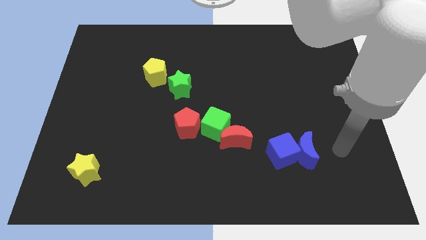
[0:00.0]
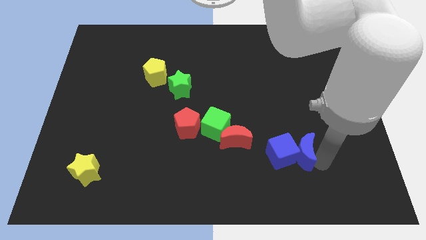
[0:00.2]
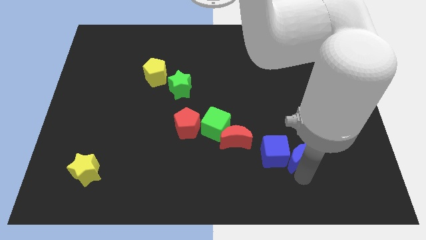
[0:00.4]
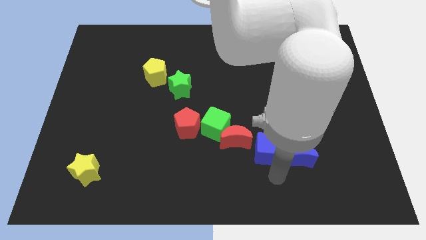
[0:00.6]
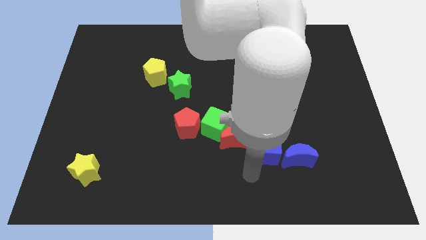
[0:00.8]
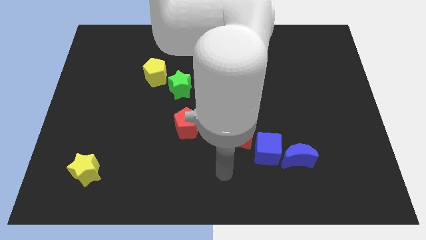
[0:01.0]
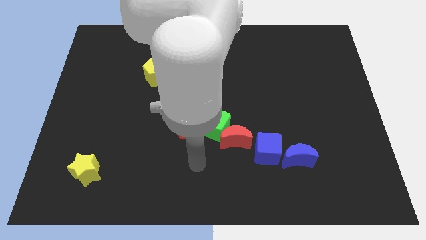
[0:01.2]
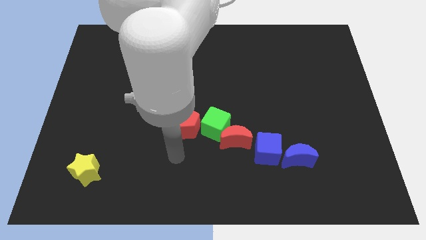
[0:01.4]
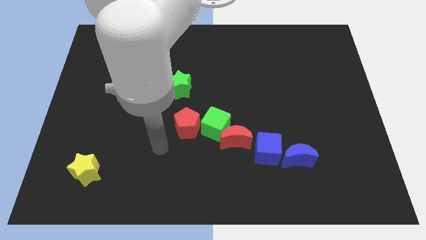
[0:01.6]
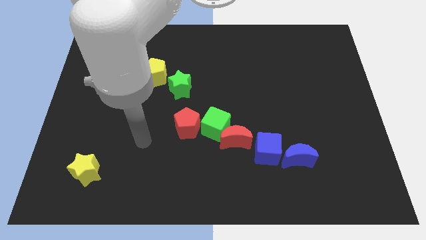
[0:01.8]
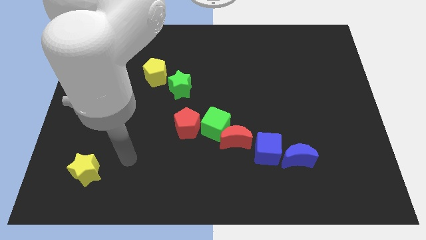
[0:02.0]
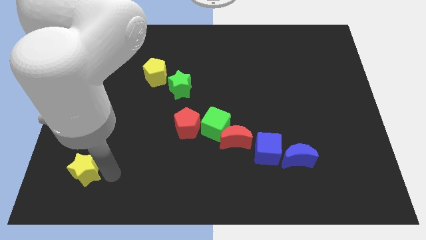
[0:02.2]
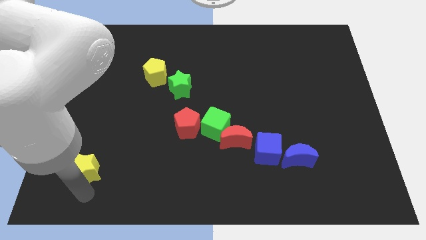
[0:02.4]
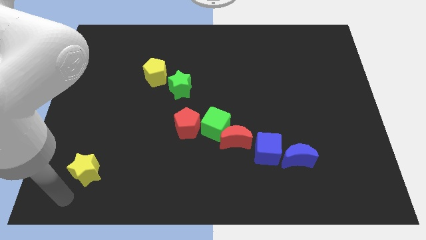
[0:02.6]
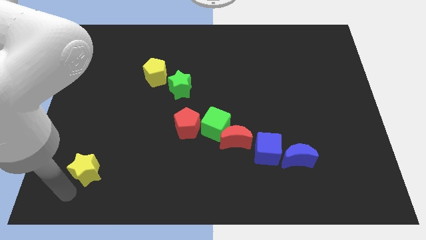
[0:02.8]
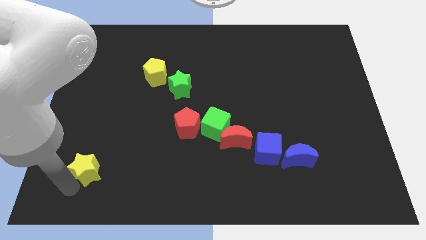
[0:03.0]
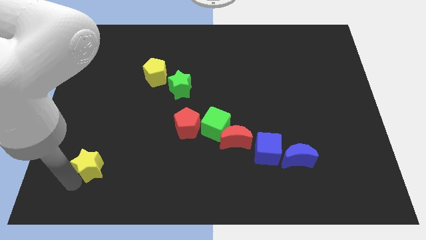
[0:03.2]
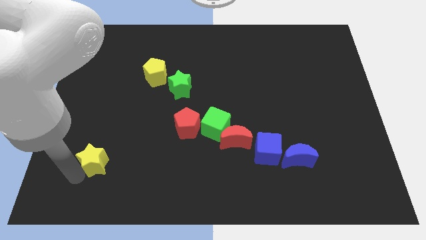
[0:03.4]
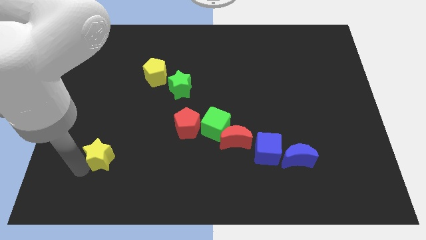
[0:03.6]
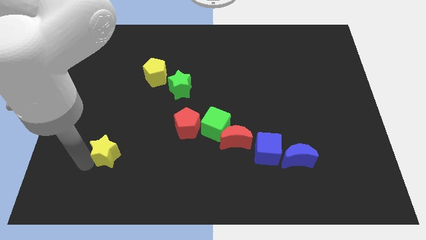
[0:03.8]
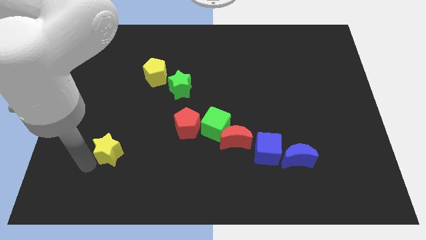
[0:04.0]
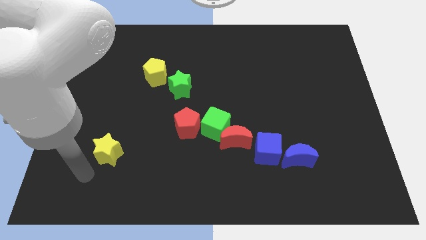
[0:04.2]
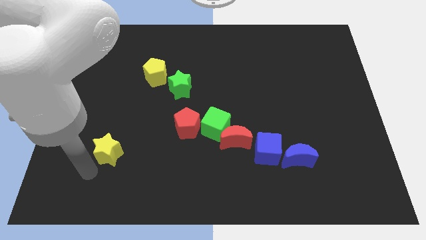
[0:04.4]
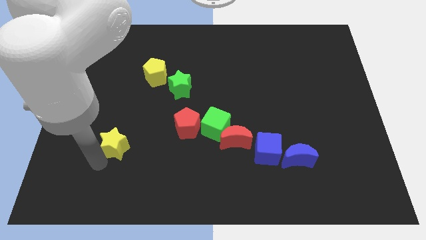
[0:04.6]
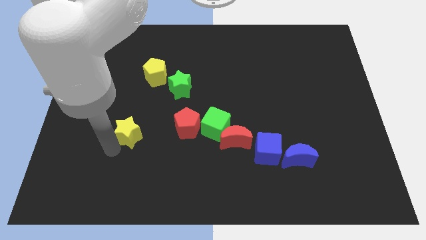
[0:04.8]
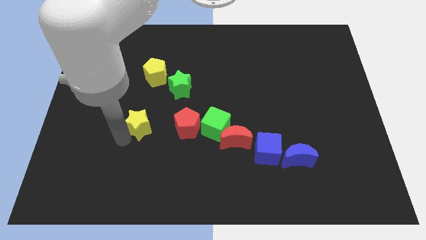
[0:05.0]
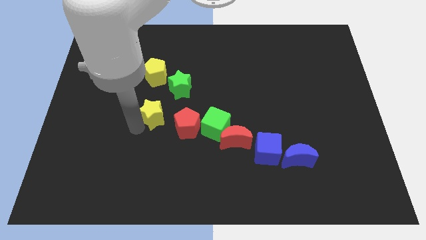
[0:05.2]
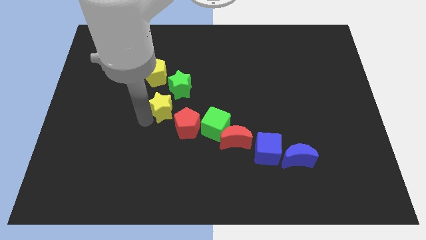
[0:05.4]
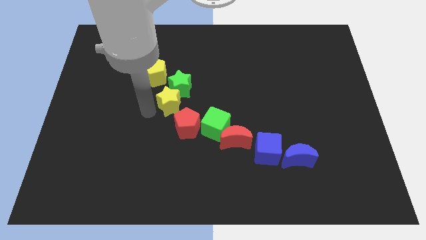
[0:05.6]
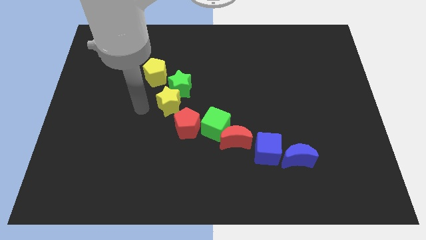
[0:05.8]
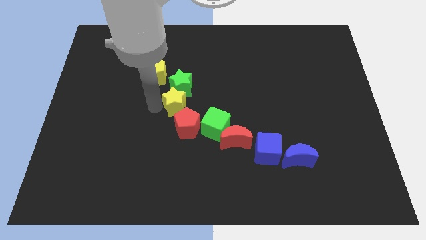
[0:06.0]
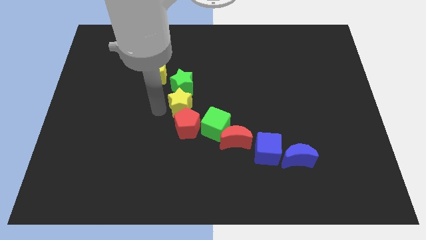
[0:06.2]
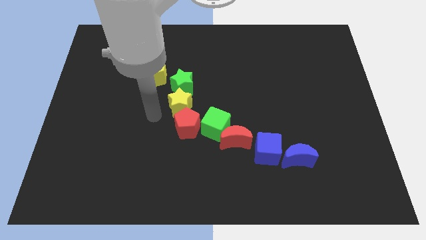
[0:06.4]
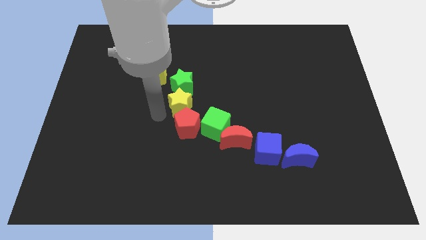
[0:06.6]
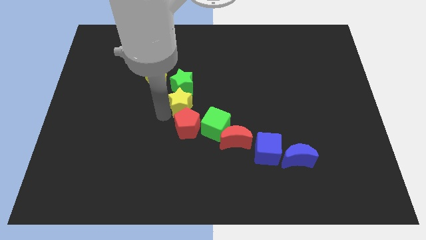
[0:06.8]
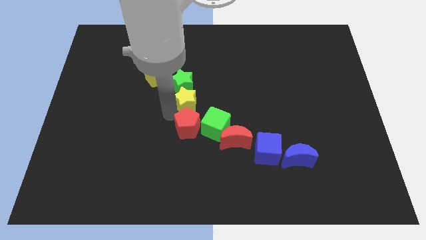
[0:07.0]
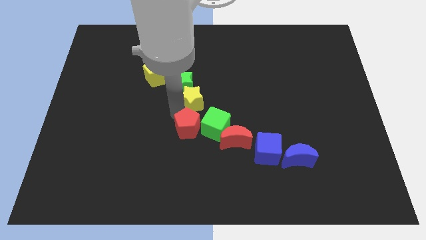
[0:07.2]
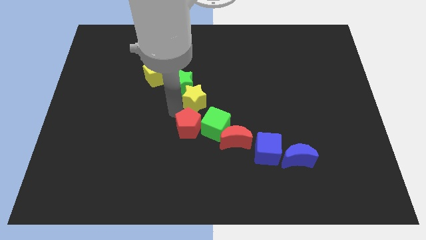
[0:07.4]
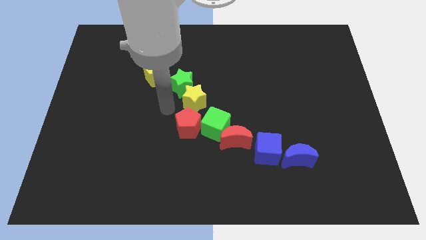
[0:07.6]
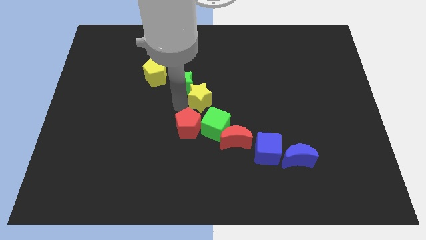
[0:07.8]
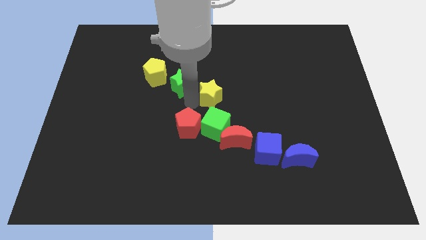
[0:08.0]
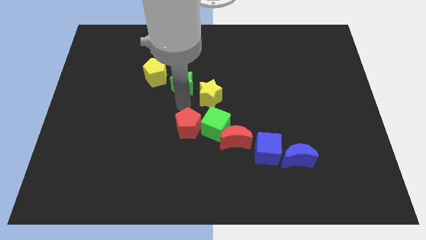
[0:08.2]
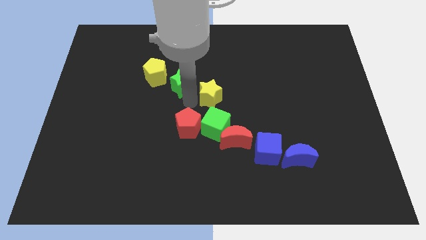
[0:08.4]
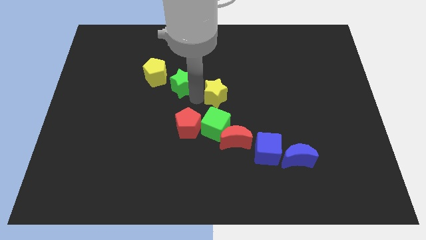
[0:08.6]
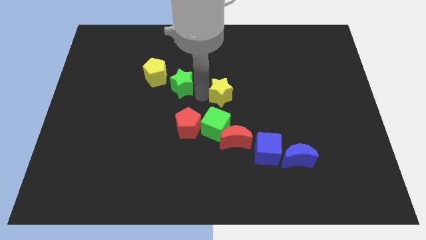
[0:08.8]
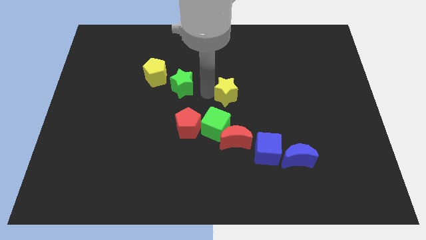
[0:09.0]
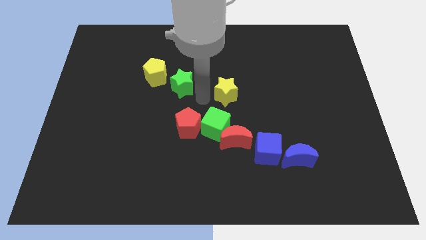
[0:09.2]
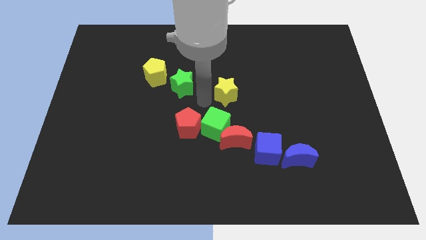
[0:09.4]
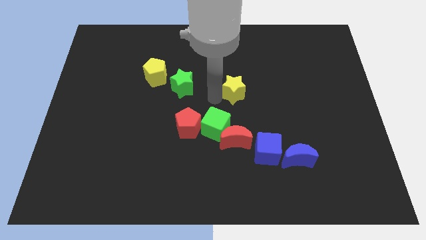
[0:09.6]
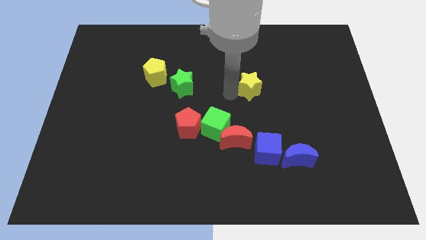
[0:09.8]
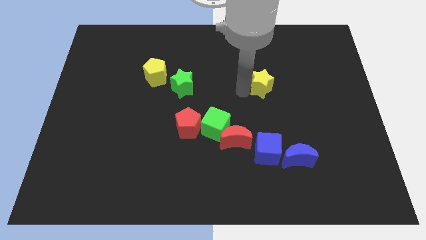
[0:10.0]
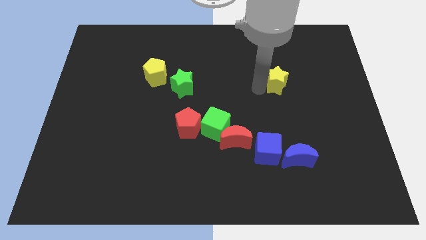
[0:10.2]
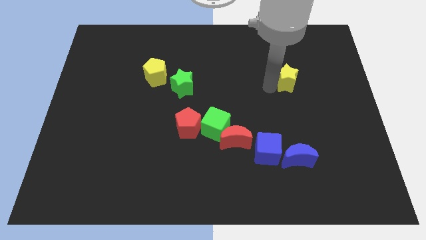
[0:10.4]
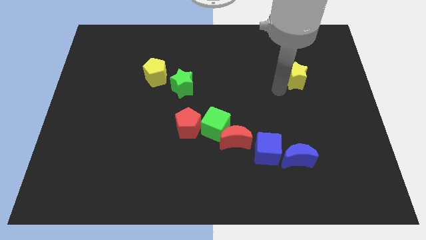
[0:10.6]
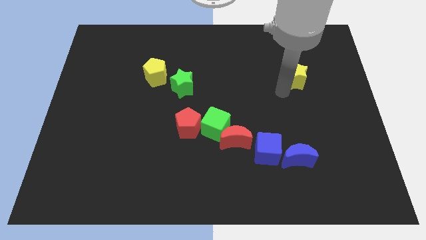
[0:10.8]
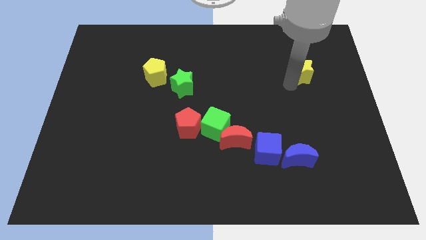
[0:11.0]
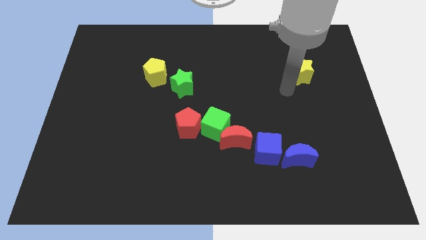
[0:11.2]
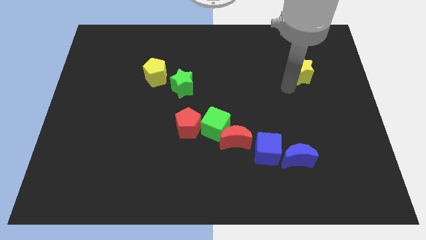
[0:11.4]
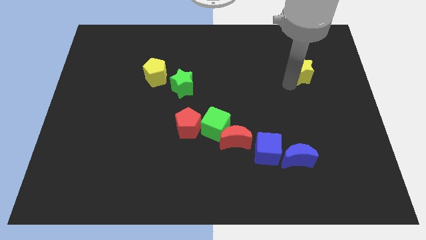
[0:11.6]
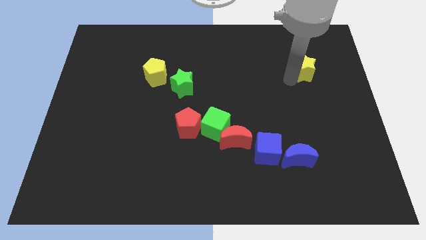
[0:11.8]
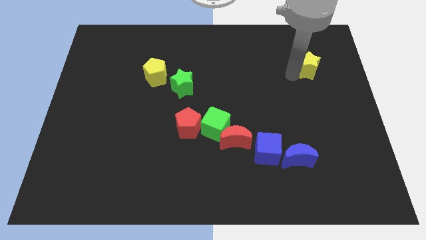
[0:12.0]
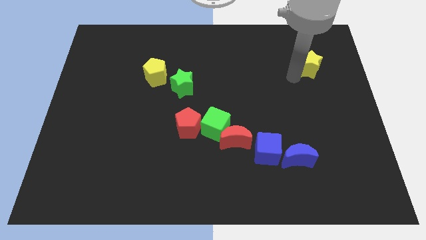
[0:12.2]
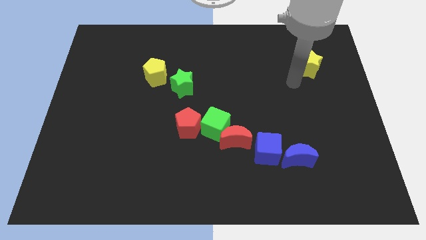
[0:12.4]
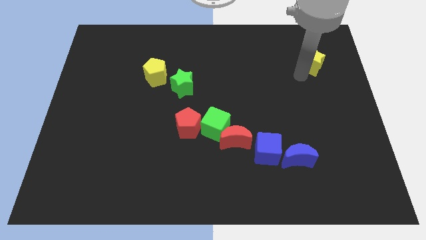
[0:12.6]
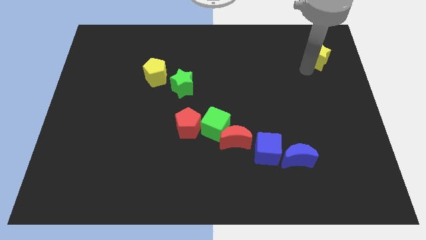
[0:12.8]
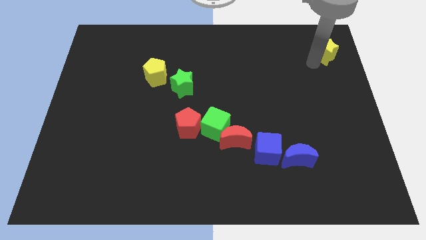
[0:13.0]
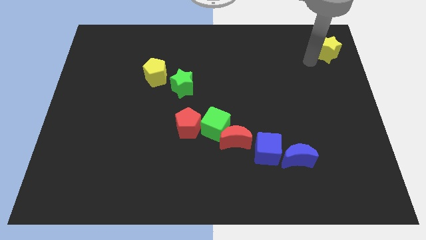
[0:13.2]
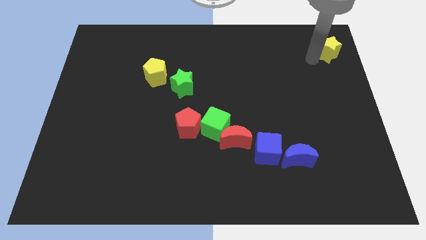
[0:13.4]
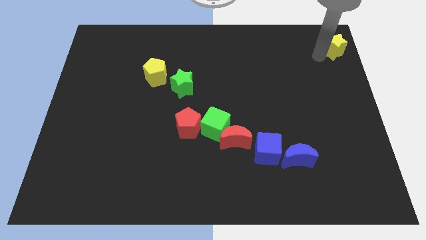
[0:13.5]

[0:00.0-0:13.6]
put the yellow star to the top right corner

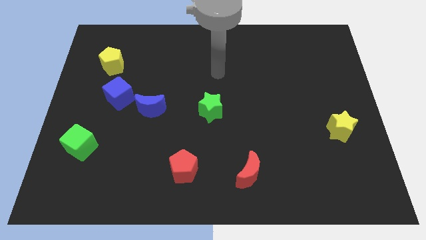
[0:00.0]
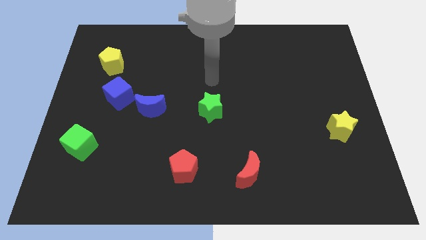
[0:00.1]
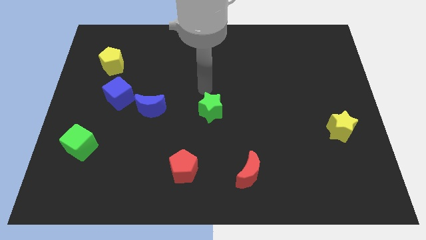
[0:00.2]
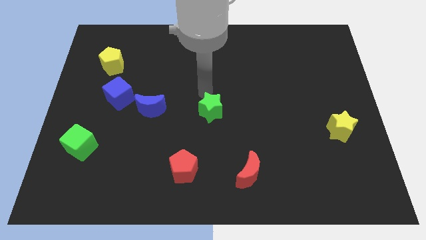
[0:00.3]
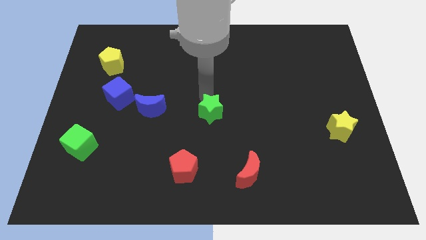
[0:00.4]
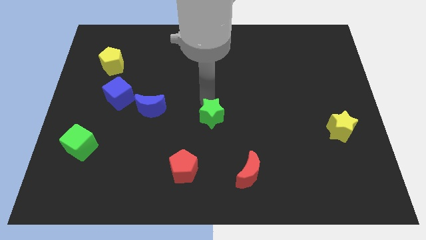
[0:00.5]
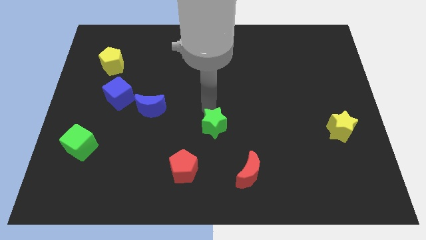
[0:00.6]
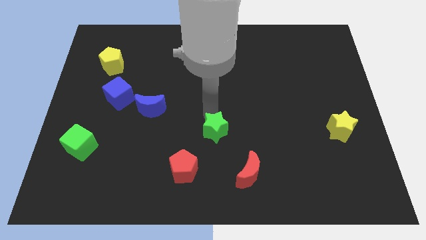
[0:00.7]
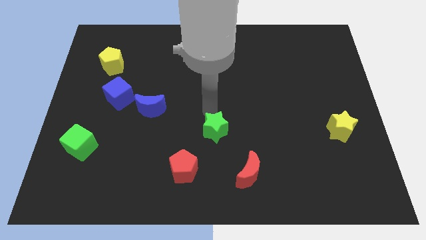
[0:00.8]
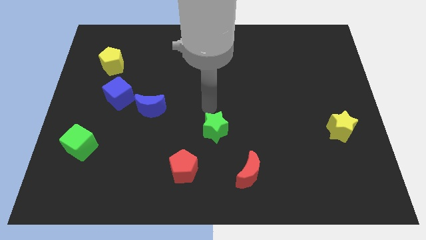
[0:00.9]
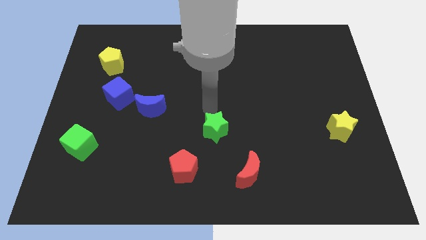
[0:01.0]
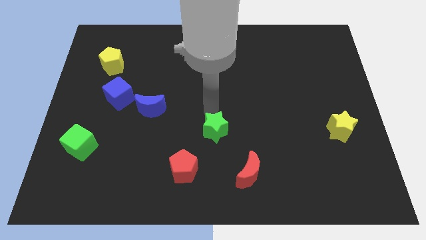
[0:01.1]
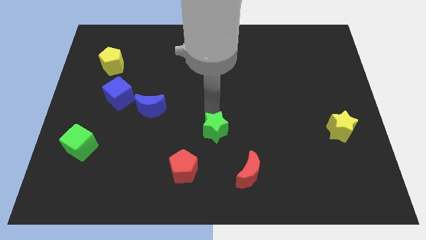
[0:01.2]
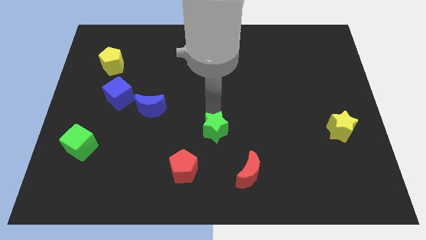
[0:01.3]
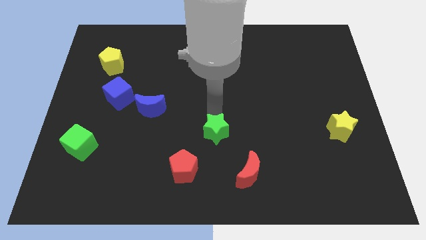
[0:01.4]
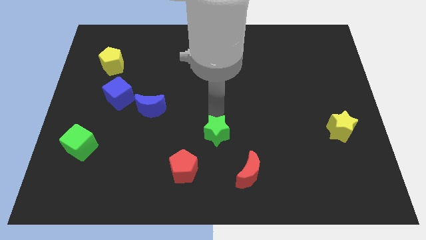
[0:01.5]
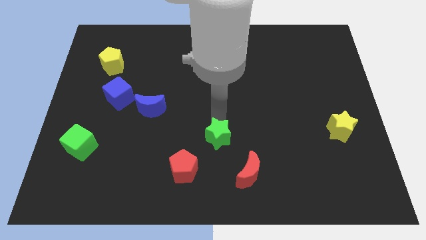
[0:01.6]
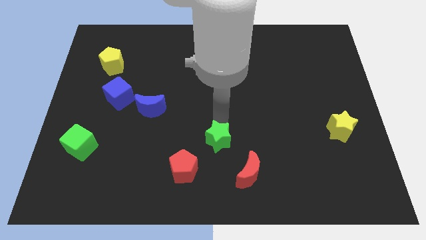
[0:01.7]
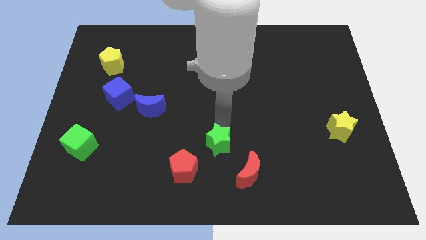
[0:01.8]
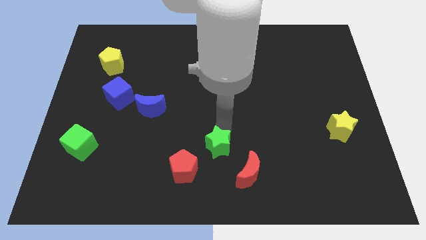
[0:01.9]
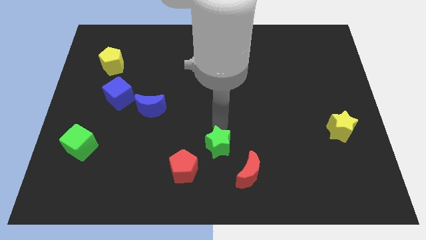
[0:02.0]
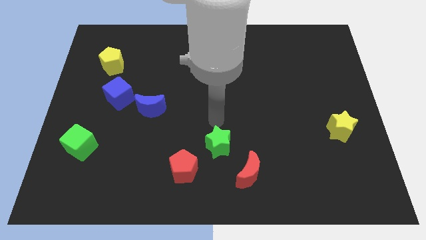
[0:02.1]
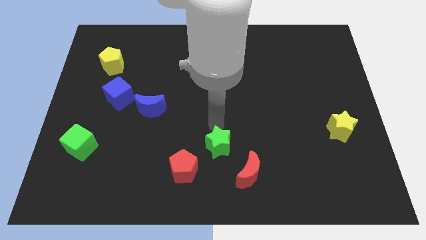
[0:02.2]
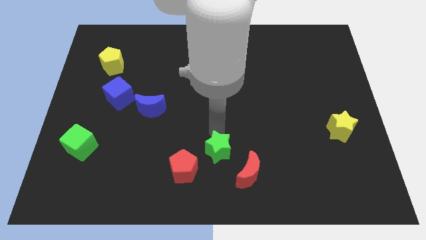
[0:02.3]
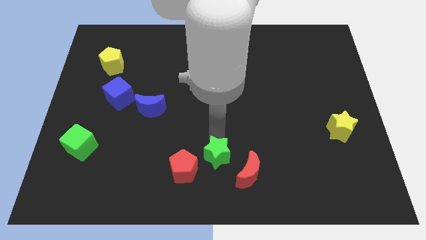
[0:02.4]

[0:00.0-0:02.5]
push the green star to the bottom
